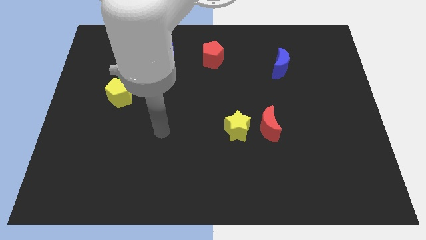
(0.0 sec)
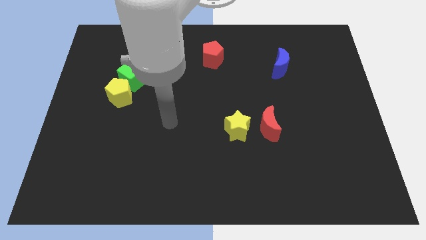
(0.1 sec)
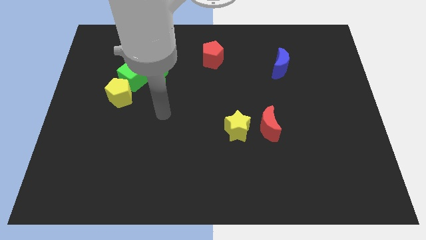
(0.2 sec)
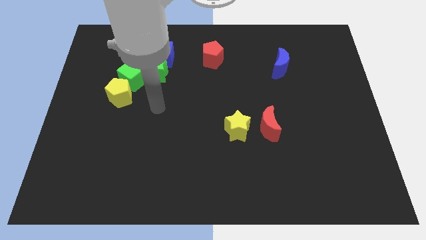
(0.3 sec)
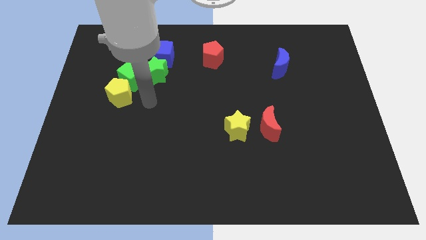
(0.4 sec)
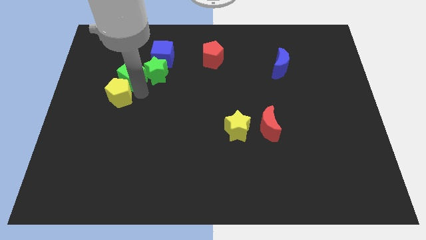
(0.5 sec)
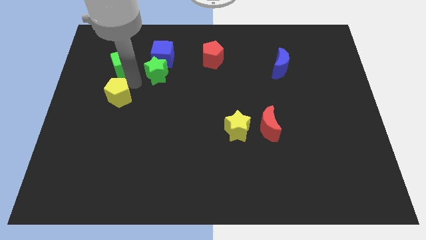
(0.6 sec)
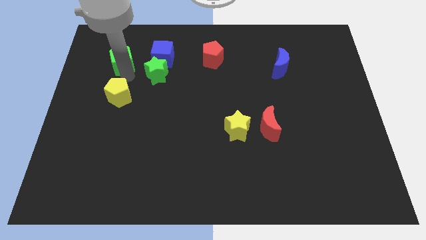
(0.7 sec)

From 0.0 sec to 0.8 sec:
separate the yellow pentagon from the green cube

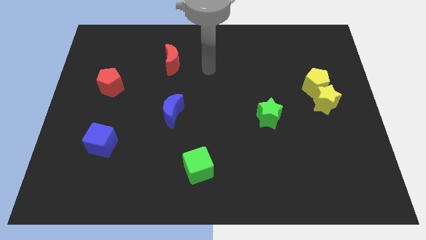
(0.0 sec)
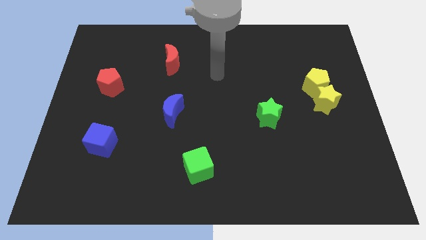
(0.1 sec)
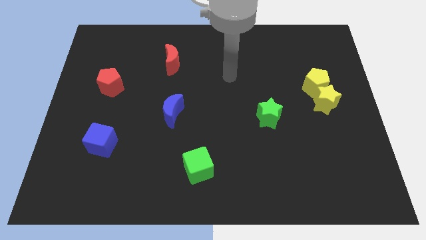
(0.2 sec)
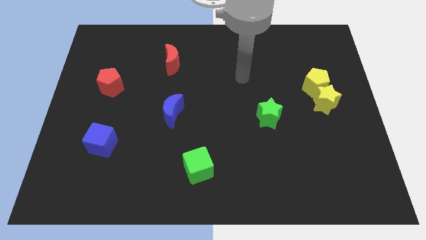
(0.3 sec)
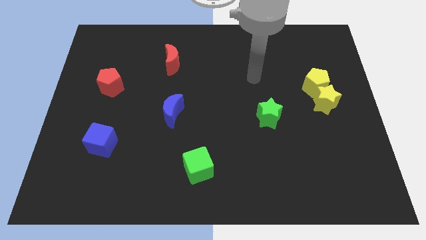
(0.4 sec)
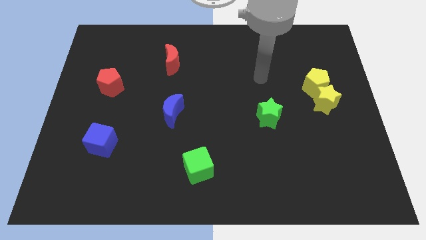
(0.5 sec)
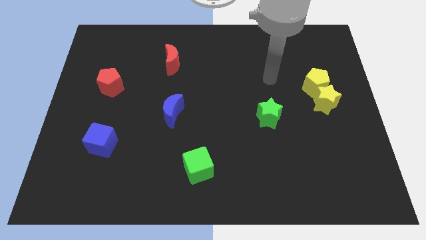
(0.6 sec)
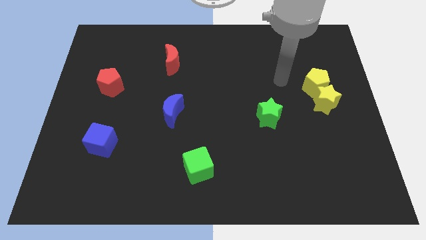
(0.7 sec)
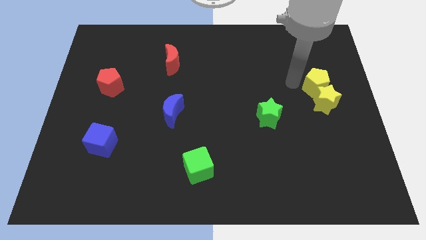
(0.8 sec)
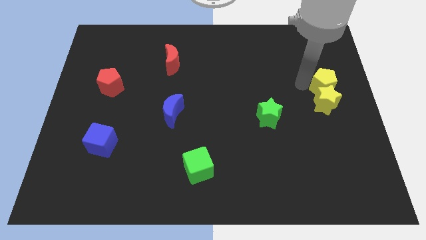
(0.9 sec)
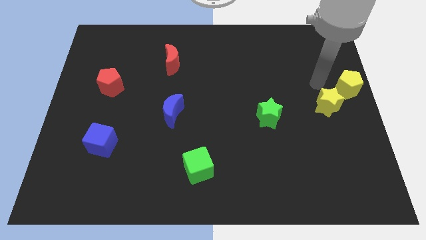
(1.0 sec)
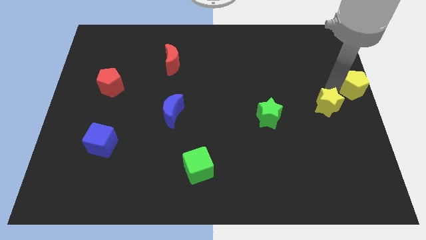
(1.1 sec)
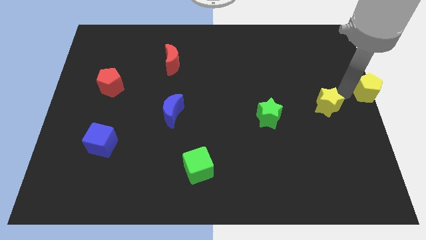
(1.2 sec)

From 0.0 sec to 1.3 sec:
separate the yellow star from the yellow pentagon

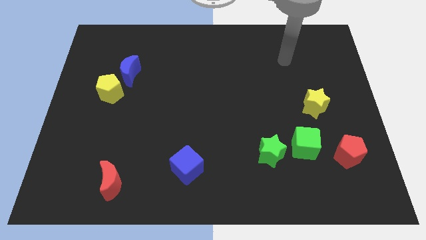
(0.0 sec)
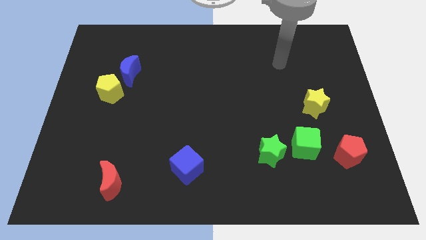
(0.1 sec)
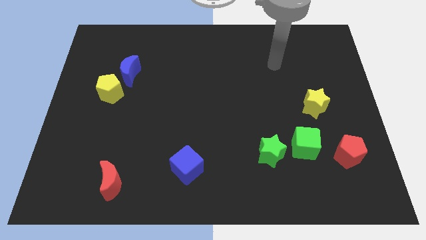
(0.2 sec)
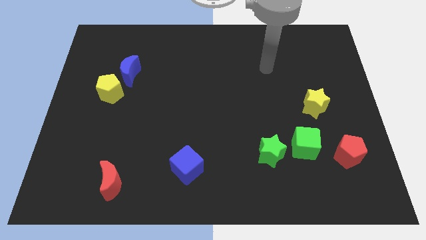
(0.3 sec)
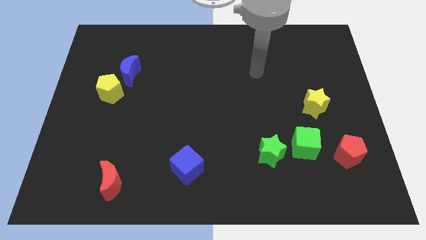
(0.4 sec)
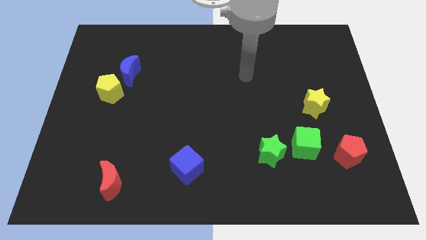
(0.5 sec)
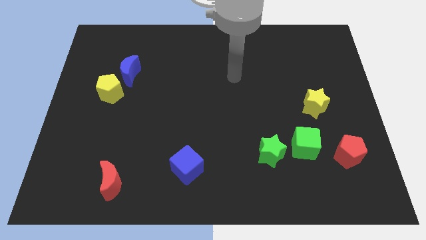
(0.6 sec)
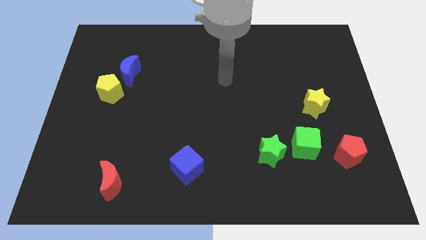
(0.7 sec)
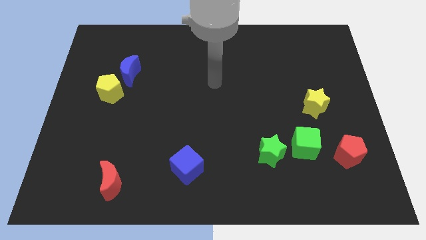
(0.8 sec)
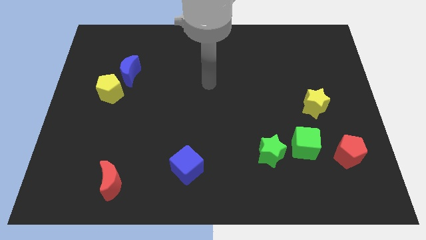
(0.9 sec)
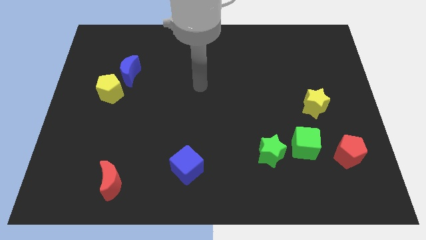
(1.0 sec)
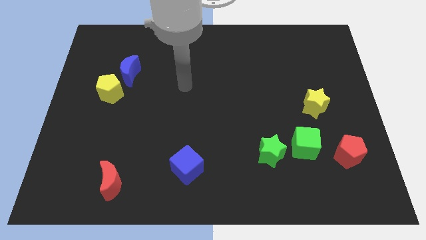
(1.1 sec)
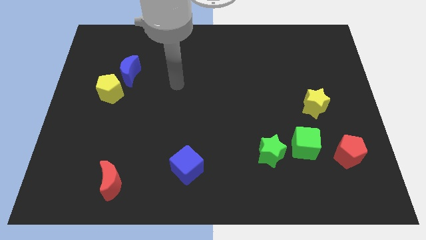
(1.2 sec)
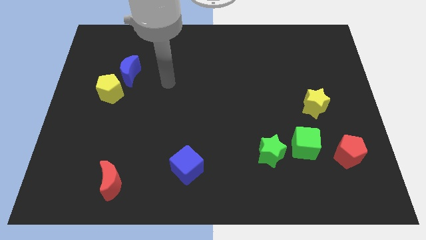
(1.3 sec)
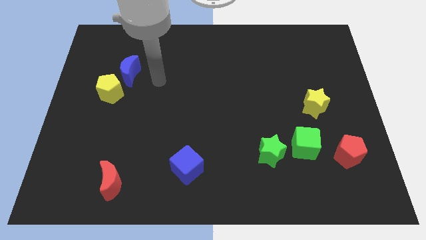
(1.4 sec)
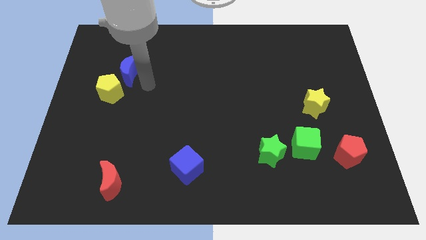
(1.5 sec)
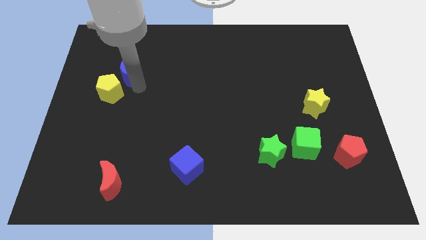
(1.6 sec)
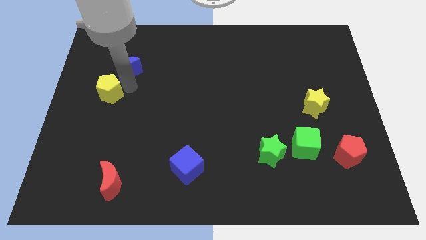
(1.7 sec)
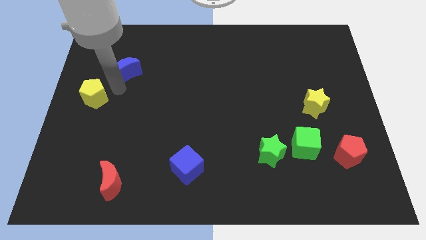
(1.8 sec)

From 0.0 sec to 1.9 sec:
pull the blue moon apart from the yellow pentagon

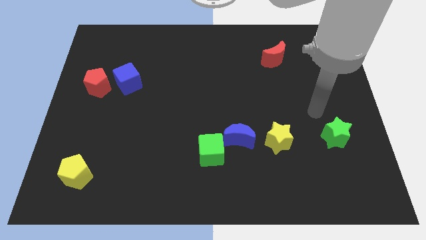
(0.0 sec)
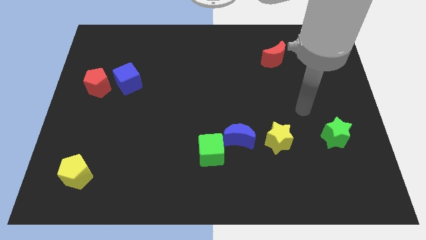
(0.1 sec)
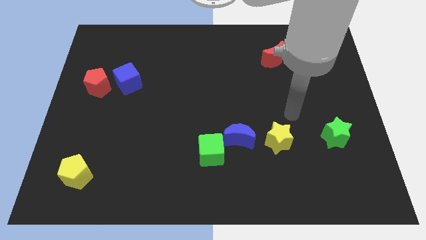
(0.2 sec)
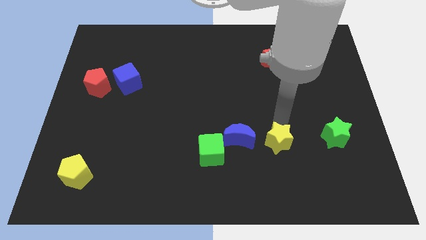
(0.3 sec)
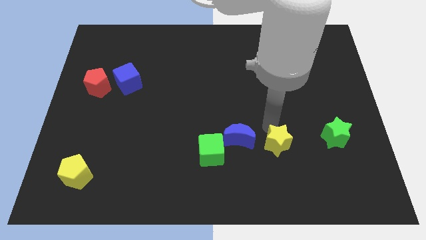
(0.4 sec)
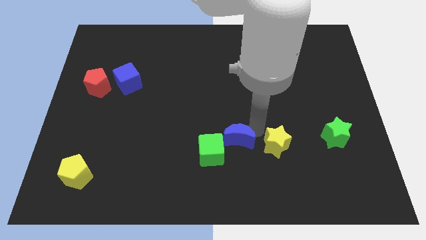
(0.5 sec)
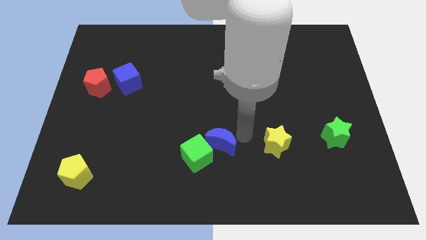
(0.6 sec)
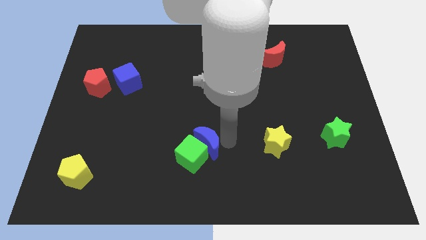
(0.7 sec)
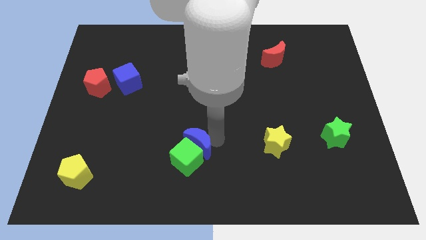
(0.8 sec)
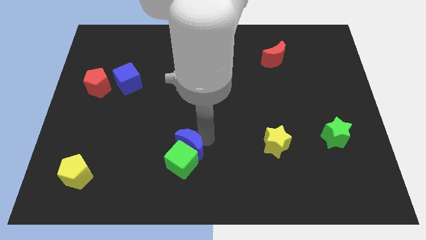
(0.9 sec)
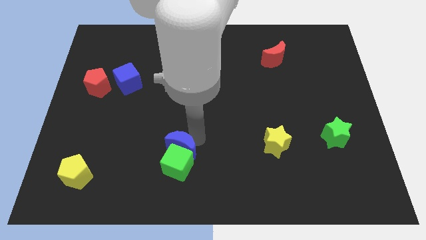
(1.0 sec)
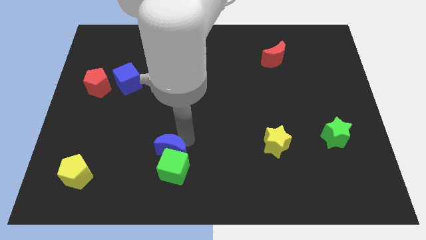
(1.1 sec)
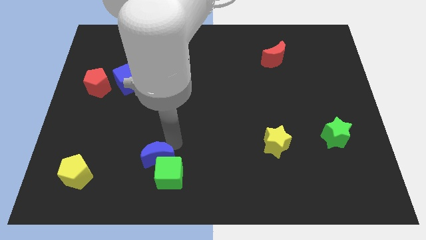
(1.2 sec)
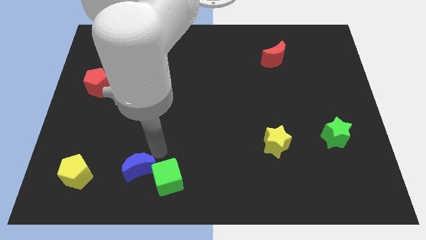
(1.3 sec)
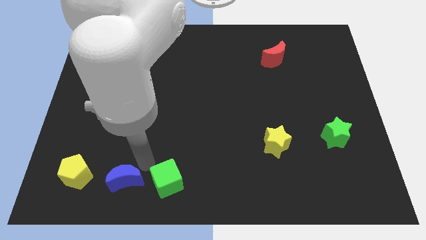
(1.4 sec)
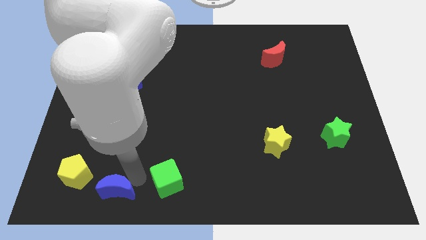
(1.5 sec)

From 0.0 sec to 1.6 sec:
separate the green cube from the blue moon

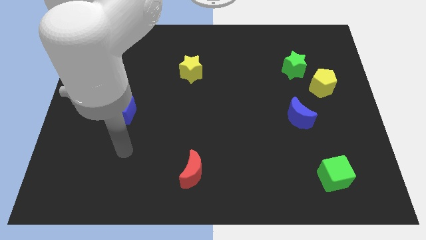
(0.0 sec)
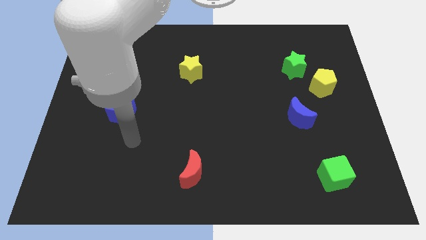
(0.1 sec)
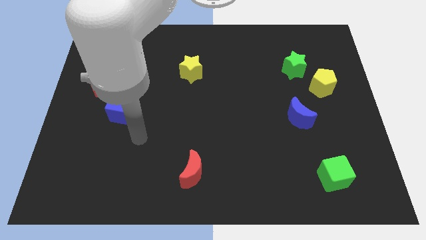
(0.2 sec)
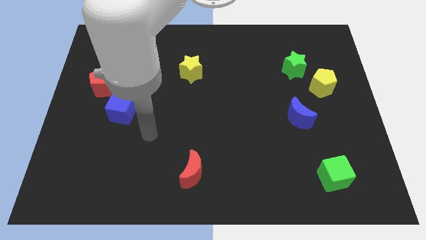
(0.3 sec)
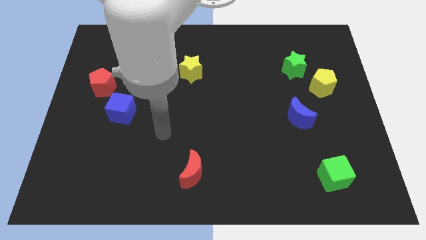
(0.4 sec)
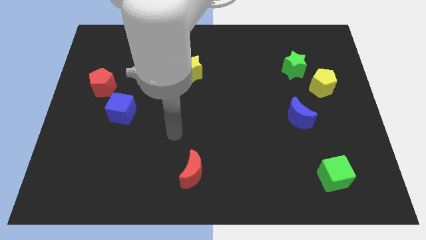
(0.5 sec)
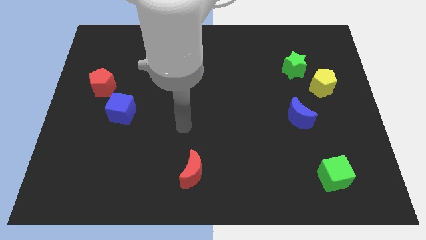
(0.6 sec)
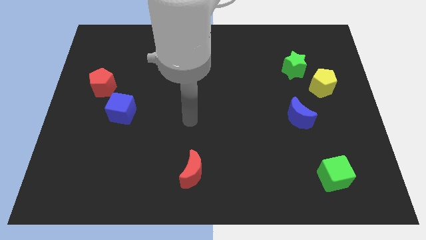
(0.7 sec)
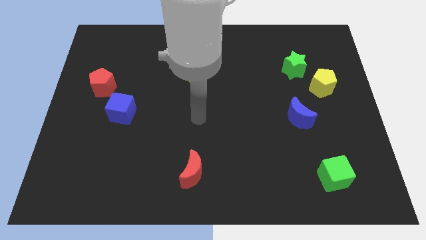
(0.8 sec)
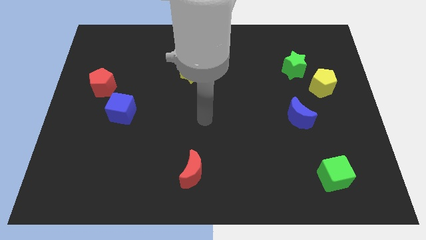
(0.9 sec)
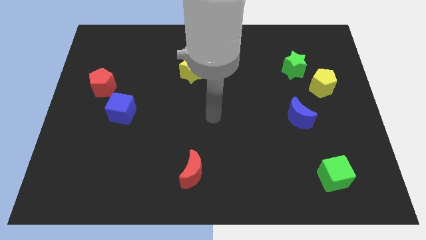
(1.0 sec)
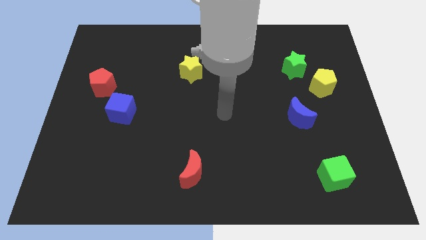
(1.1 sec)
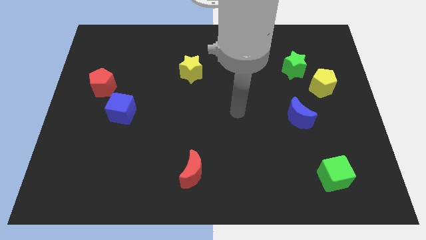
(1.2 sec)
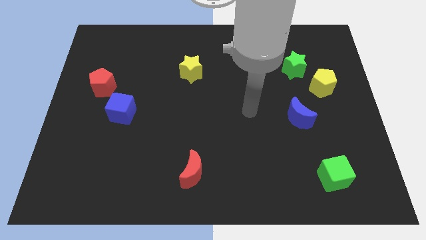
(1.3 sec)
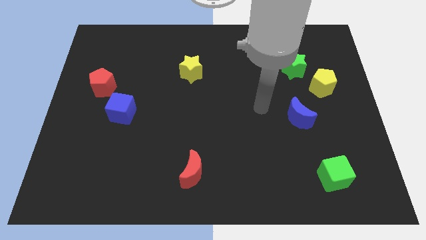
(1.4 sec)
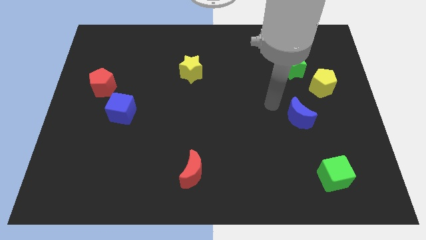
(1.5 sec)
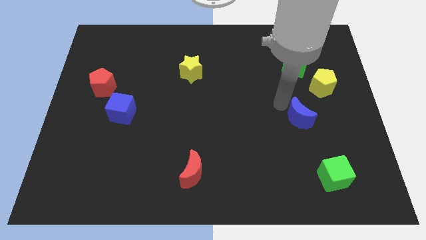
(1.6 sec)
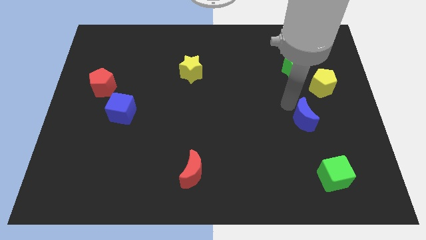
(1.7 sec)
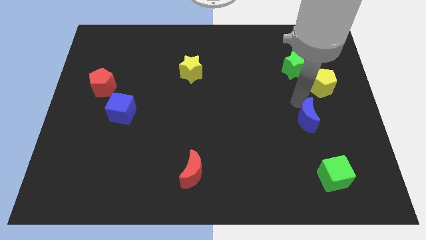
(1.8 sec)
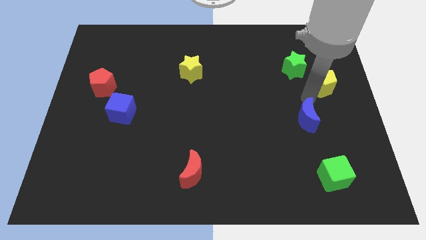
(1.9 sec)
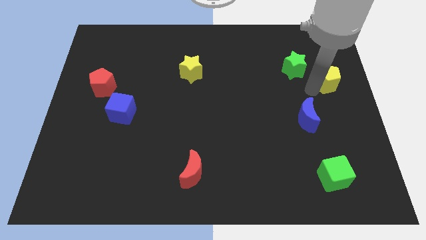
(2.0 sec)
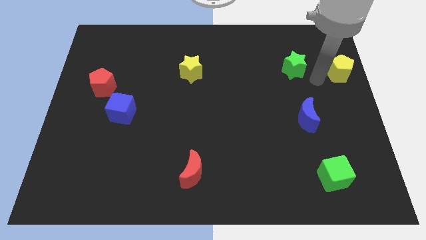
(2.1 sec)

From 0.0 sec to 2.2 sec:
separate the green star from the yellow pentagon

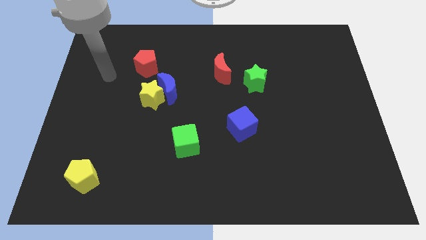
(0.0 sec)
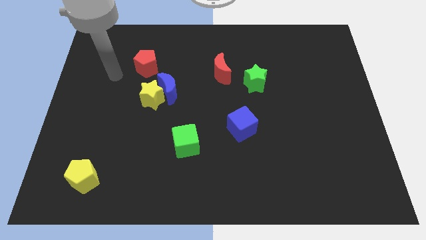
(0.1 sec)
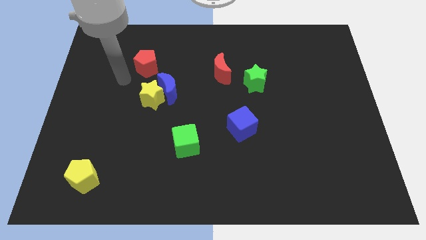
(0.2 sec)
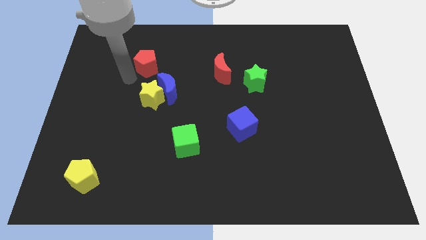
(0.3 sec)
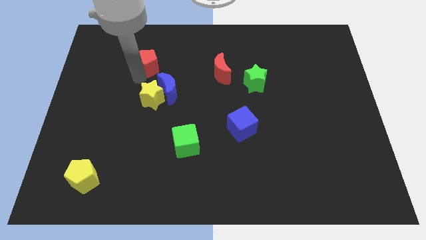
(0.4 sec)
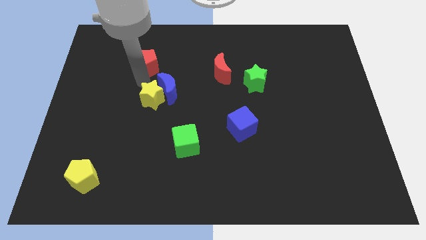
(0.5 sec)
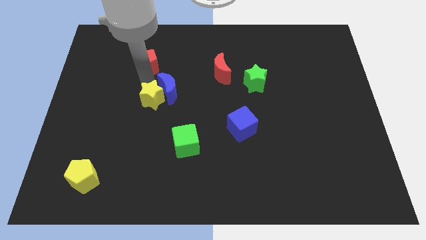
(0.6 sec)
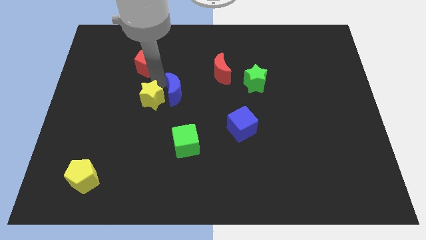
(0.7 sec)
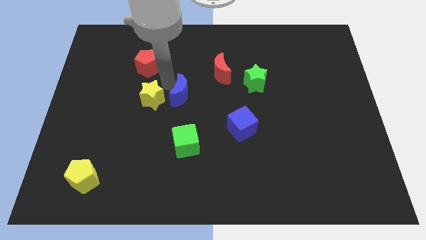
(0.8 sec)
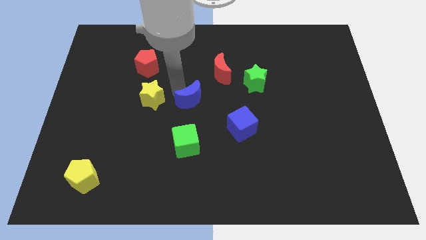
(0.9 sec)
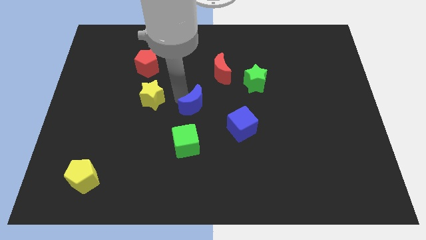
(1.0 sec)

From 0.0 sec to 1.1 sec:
pull the yellow star apart from the blue moon

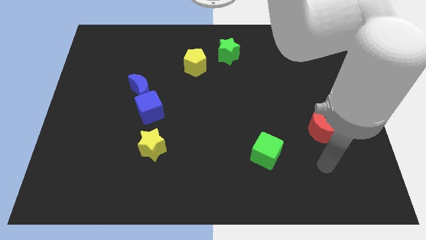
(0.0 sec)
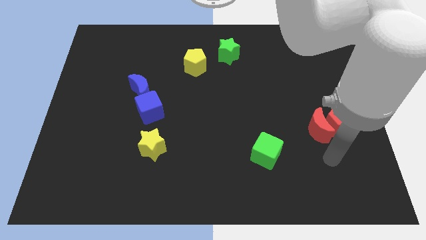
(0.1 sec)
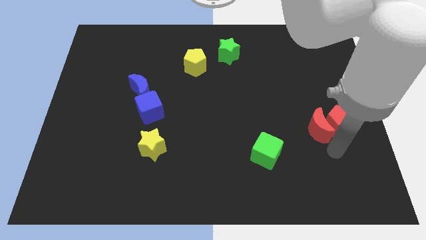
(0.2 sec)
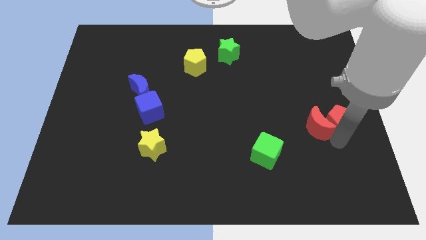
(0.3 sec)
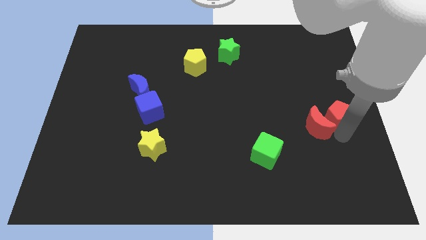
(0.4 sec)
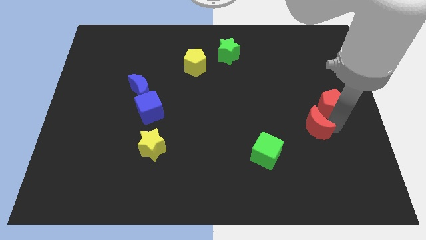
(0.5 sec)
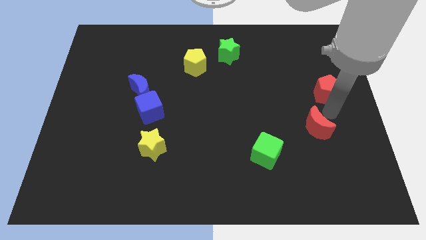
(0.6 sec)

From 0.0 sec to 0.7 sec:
pull the red moon apart from the red pentagon
